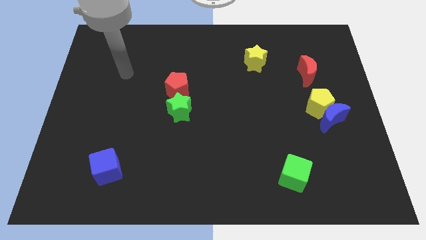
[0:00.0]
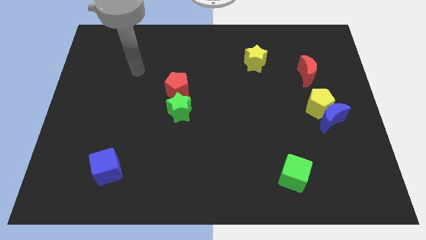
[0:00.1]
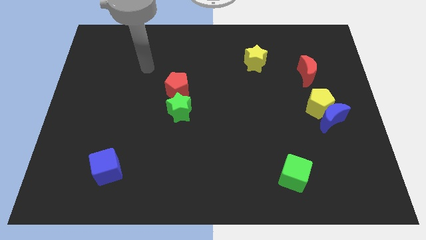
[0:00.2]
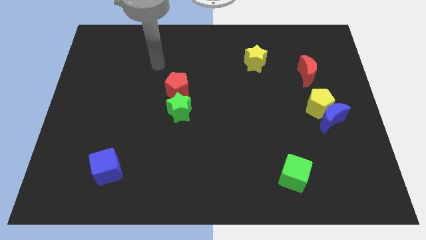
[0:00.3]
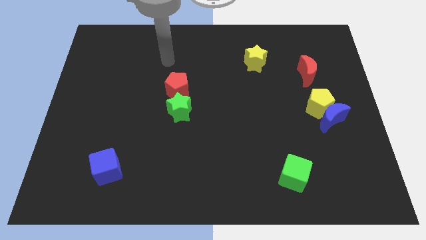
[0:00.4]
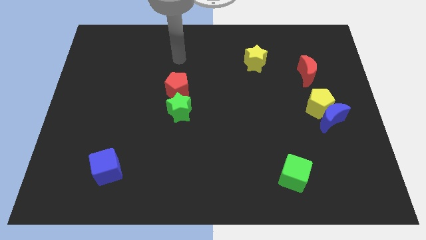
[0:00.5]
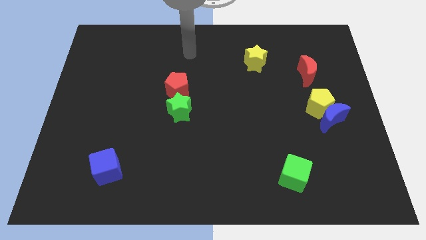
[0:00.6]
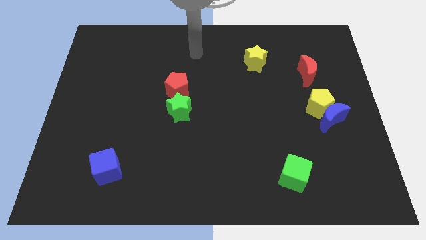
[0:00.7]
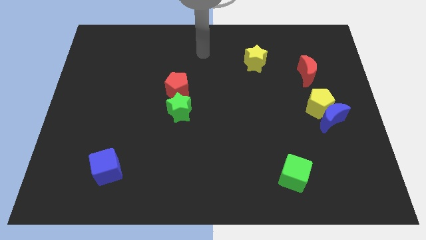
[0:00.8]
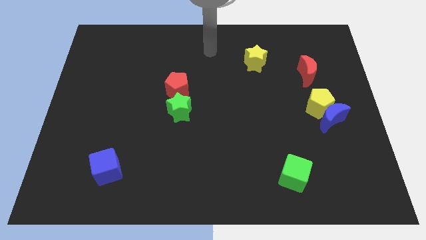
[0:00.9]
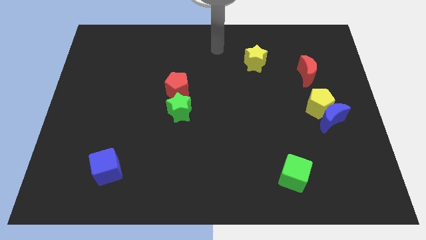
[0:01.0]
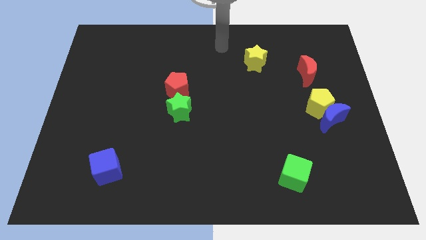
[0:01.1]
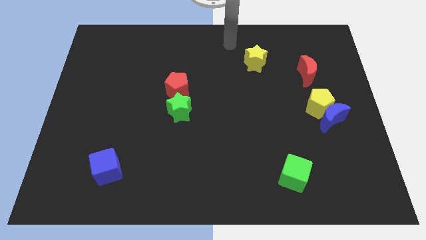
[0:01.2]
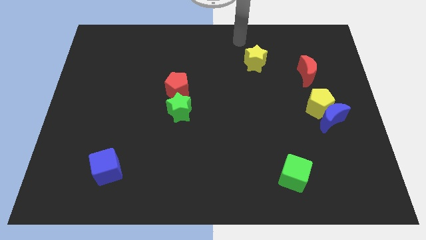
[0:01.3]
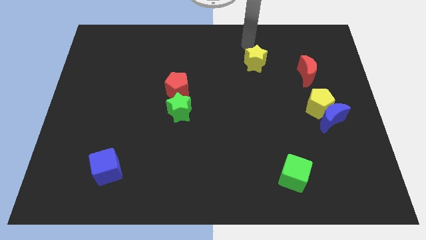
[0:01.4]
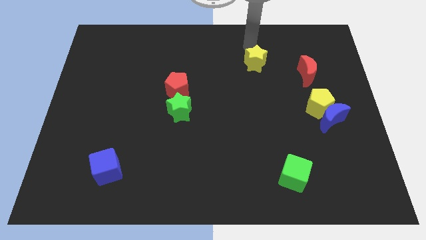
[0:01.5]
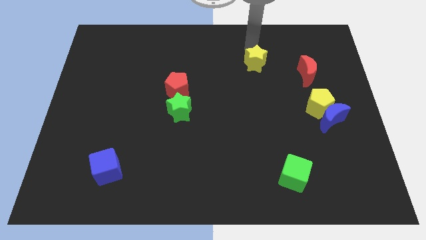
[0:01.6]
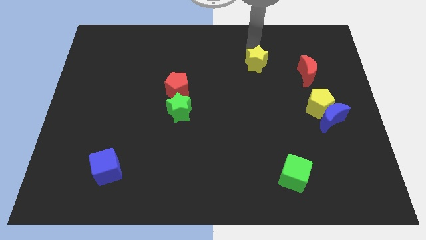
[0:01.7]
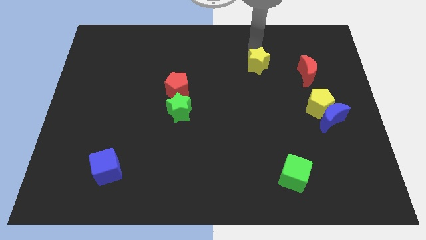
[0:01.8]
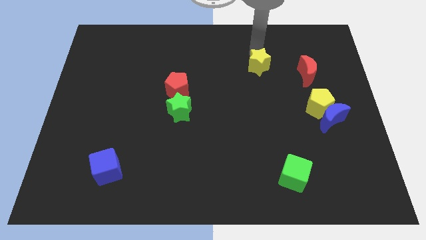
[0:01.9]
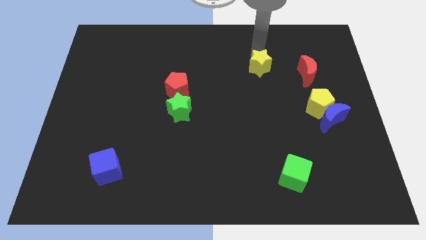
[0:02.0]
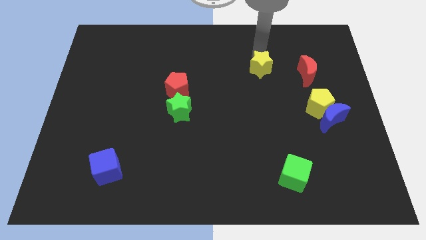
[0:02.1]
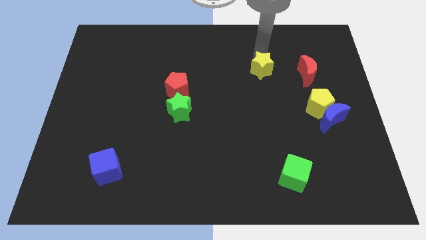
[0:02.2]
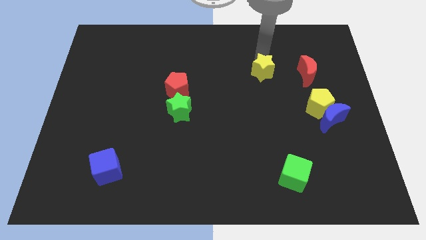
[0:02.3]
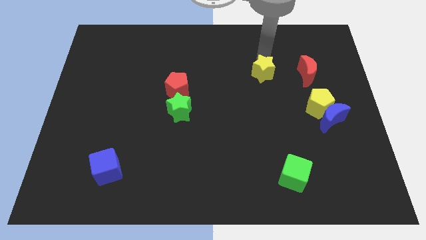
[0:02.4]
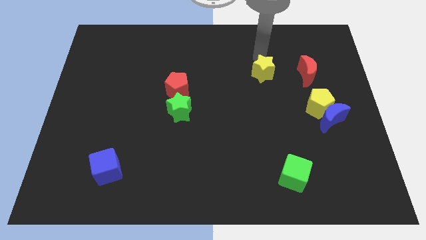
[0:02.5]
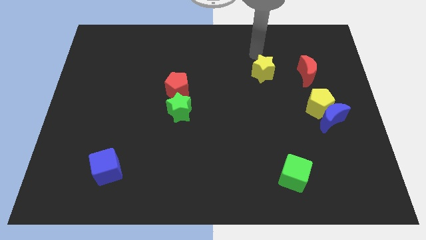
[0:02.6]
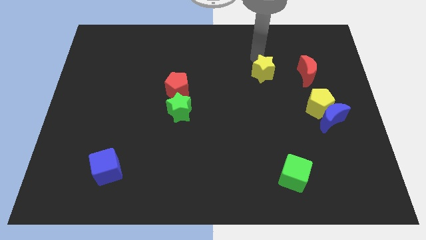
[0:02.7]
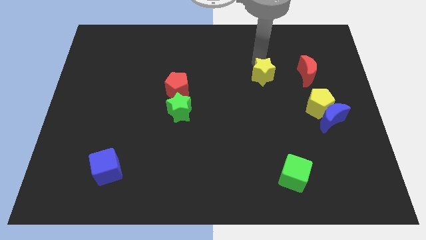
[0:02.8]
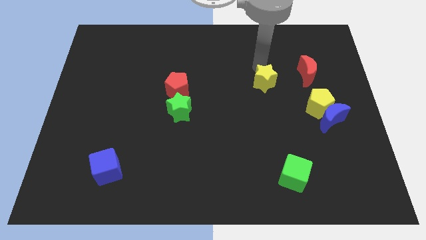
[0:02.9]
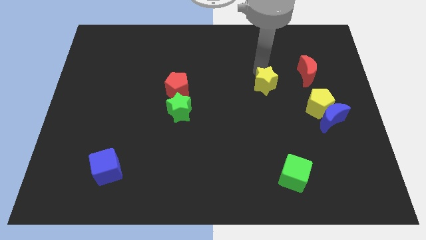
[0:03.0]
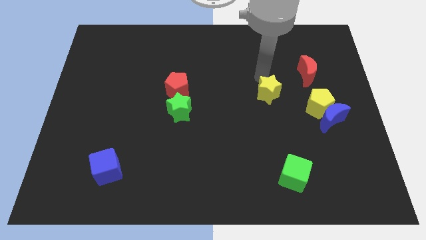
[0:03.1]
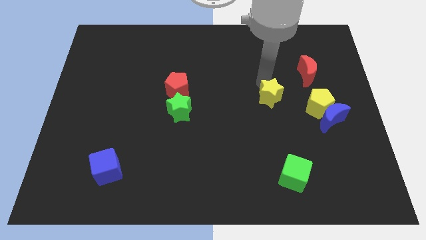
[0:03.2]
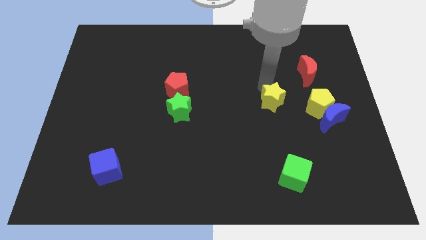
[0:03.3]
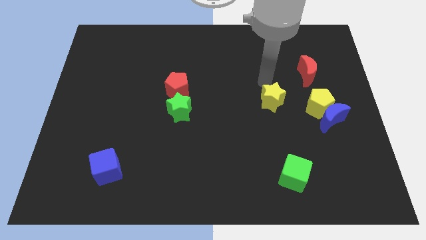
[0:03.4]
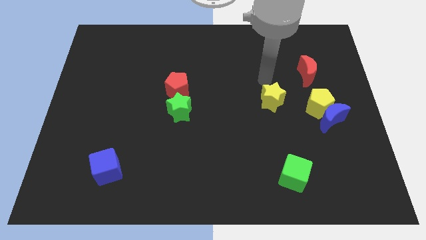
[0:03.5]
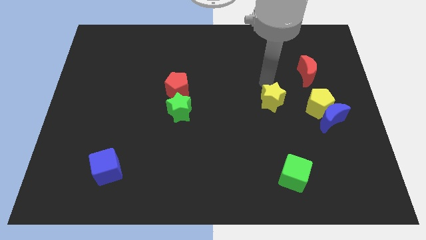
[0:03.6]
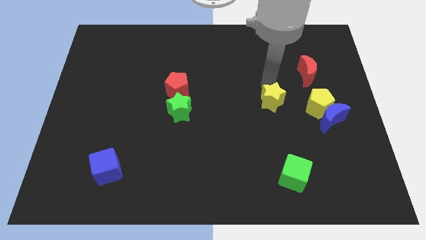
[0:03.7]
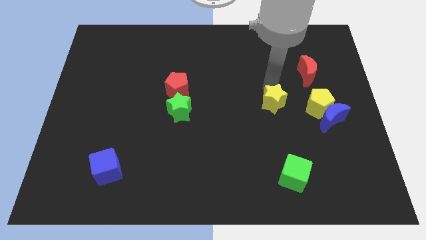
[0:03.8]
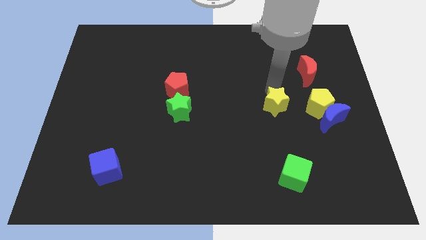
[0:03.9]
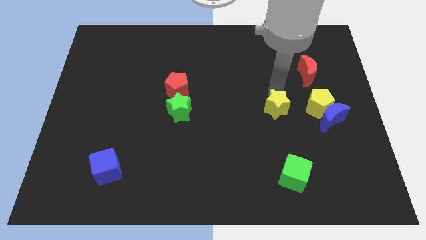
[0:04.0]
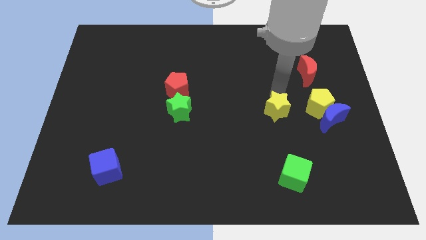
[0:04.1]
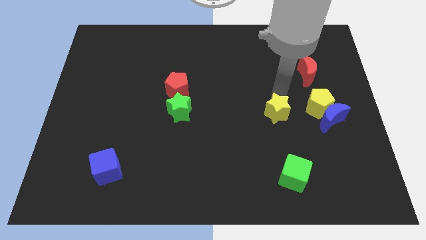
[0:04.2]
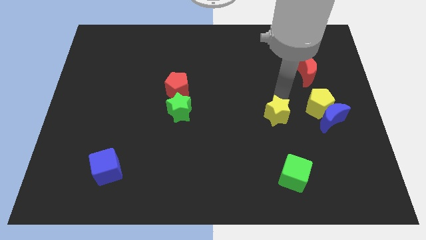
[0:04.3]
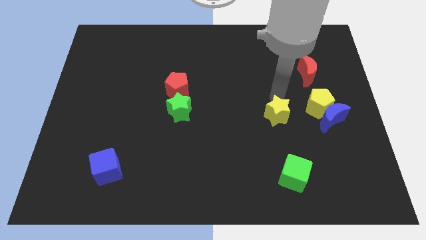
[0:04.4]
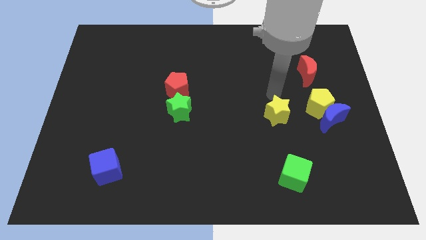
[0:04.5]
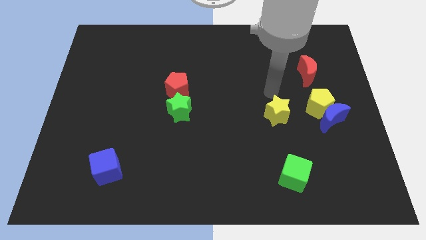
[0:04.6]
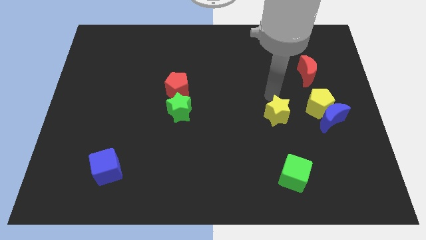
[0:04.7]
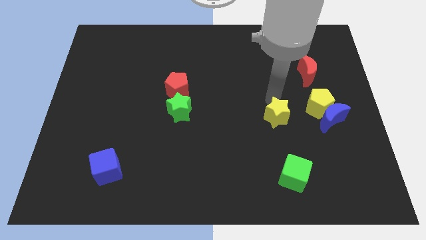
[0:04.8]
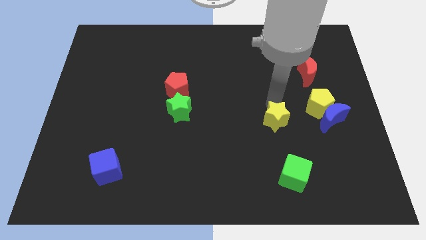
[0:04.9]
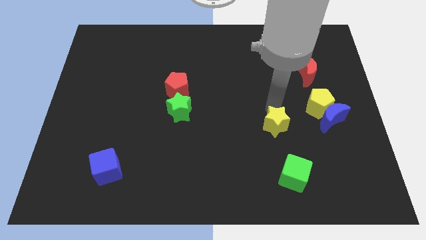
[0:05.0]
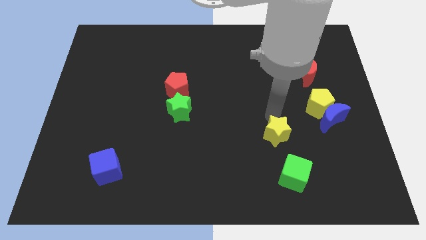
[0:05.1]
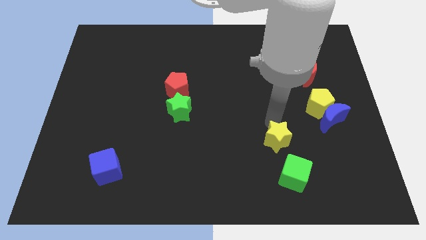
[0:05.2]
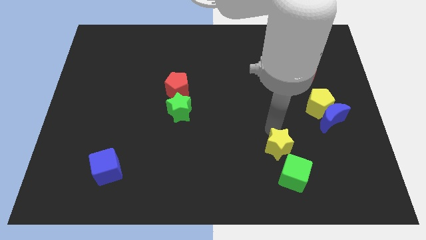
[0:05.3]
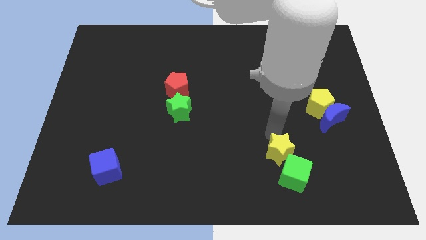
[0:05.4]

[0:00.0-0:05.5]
move the yellow star towards the green cube
